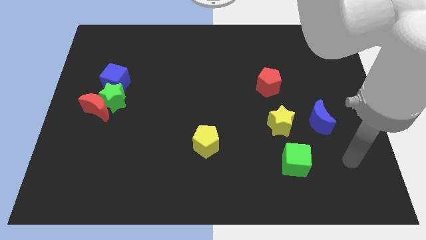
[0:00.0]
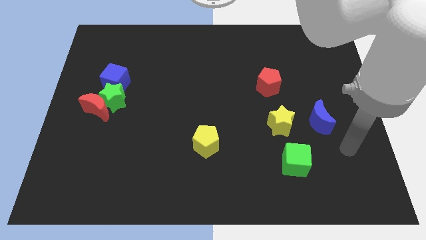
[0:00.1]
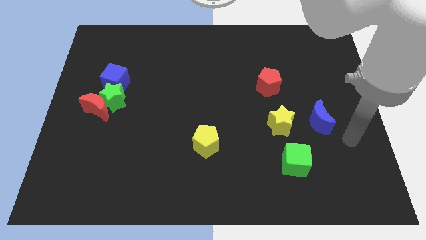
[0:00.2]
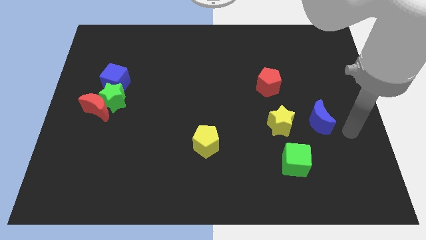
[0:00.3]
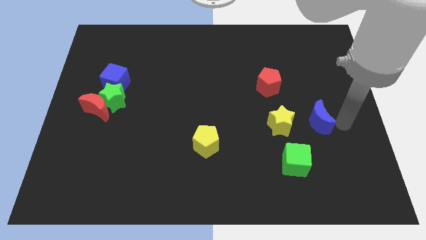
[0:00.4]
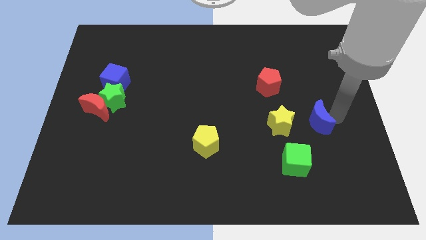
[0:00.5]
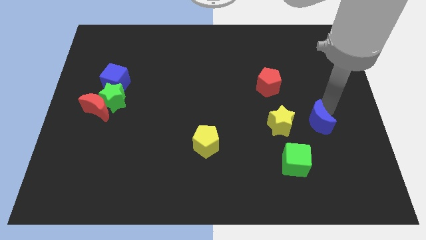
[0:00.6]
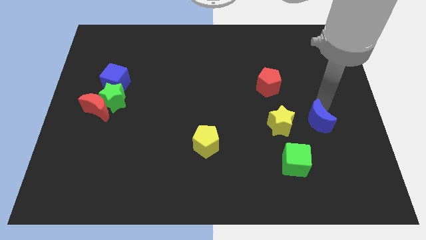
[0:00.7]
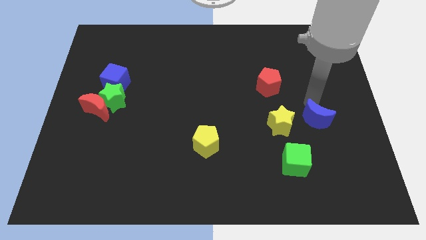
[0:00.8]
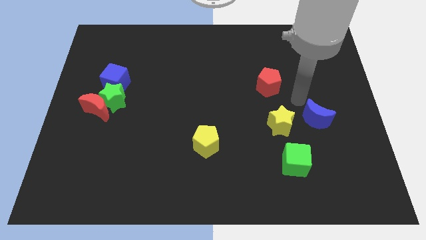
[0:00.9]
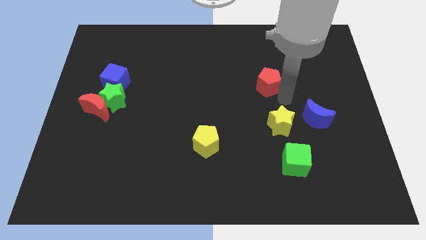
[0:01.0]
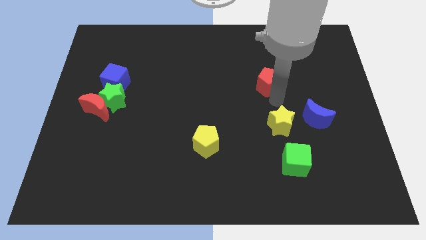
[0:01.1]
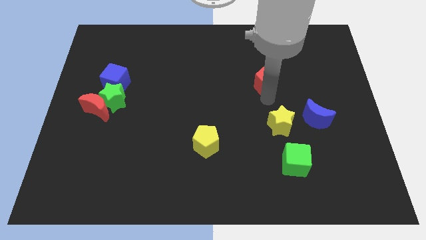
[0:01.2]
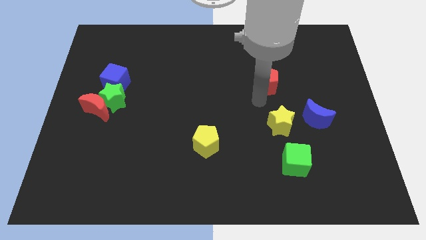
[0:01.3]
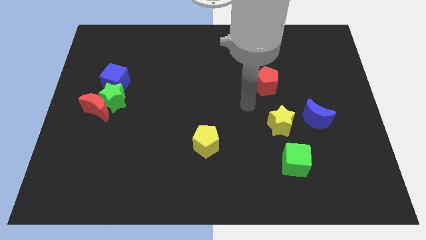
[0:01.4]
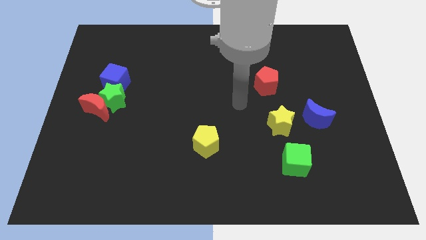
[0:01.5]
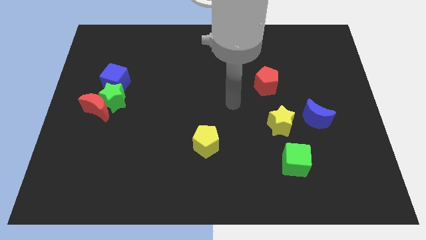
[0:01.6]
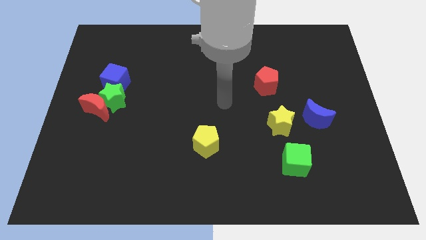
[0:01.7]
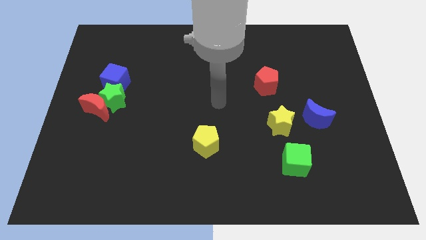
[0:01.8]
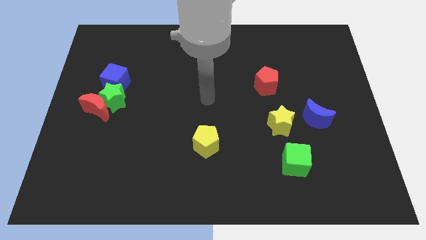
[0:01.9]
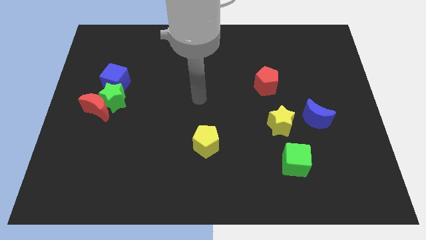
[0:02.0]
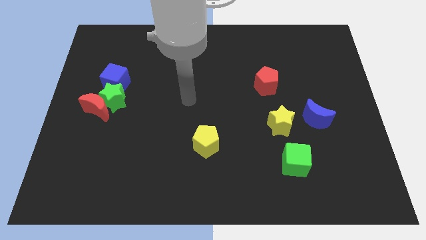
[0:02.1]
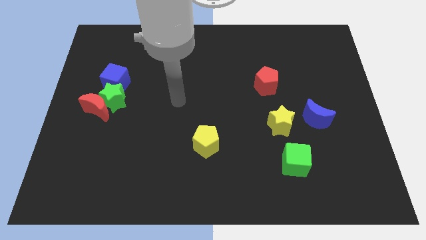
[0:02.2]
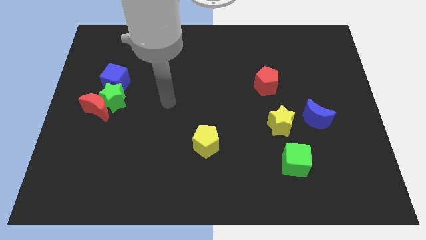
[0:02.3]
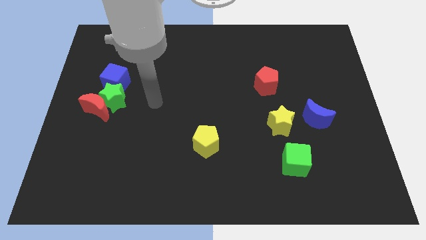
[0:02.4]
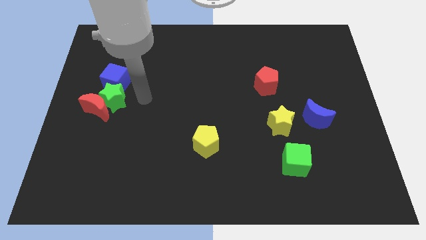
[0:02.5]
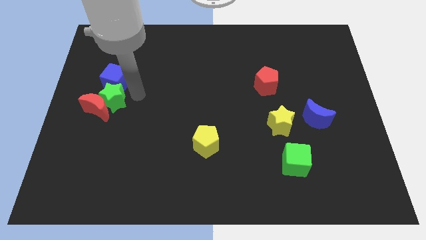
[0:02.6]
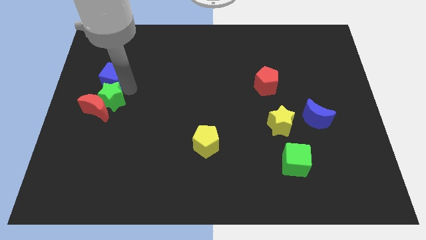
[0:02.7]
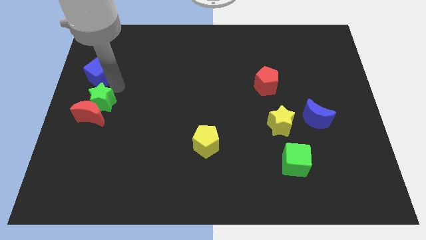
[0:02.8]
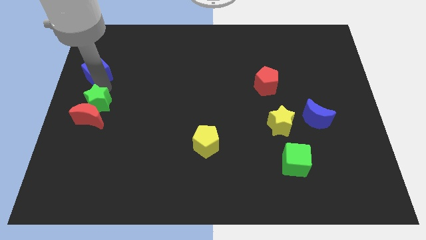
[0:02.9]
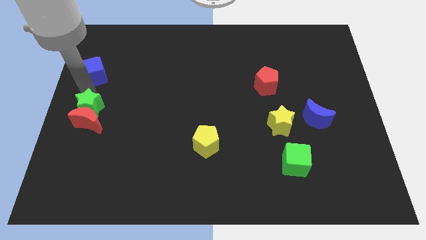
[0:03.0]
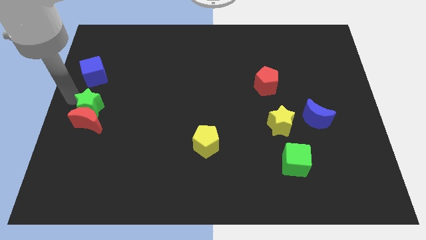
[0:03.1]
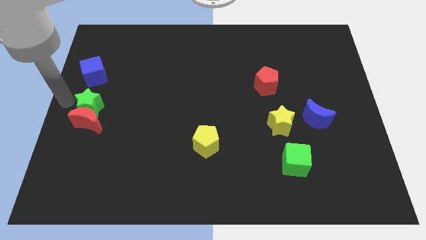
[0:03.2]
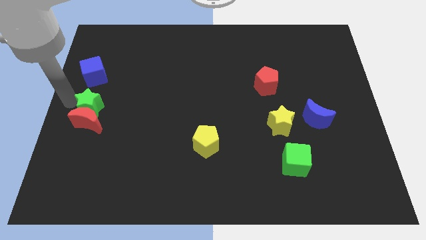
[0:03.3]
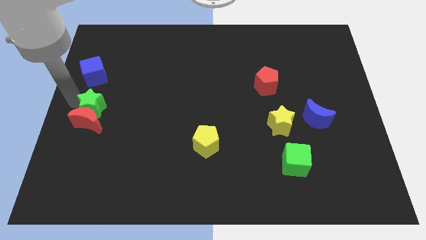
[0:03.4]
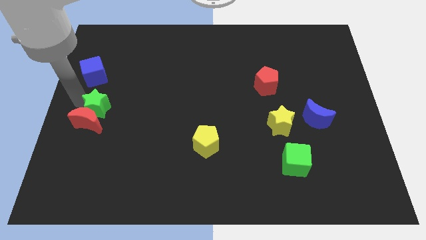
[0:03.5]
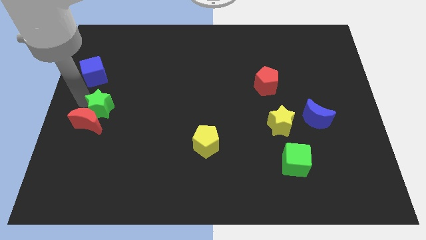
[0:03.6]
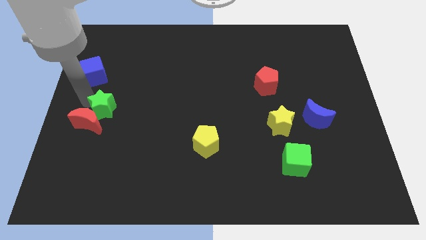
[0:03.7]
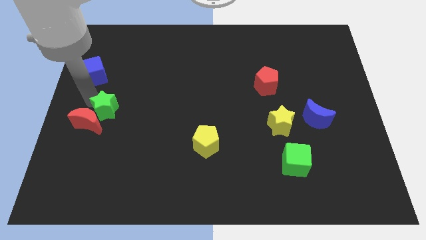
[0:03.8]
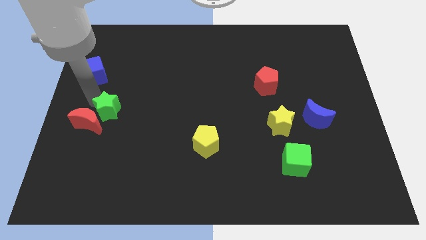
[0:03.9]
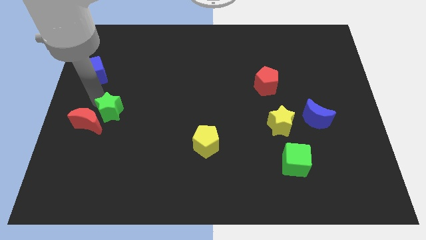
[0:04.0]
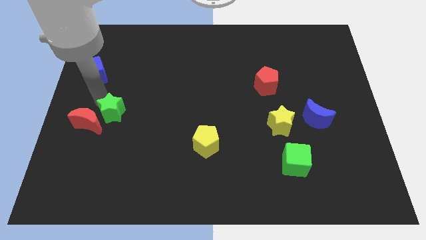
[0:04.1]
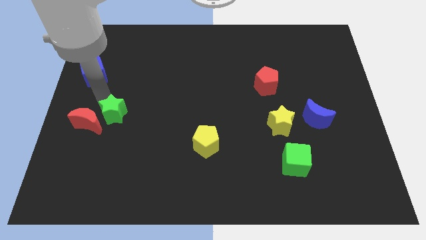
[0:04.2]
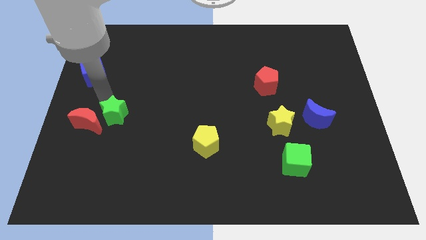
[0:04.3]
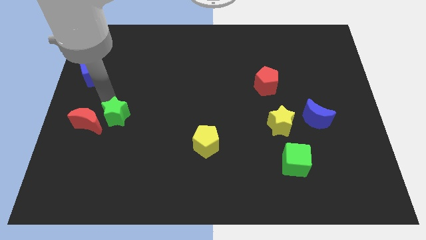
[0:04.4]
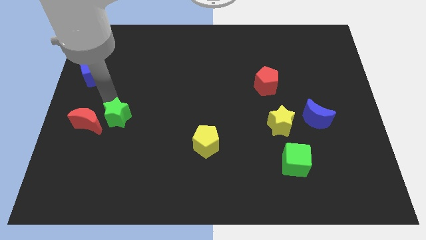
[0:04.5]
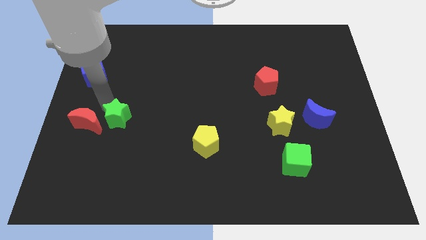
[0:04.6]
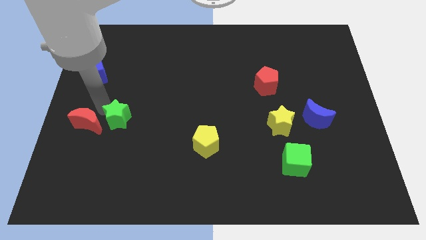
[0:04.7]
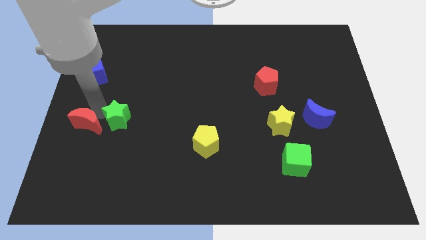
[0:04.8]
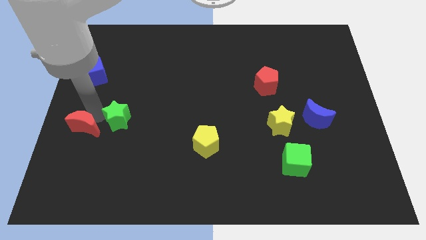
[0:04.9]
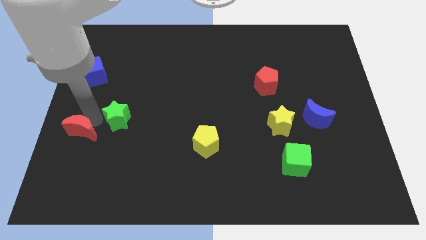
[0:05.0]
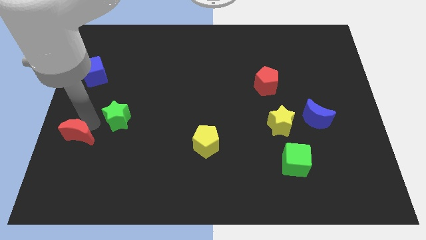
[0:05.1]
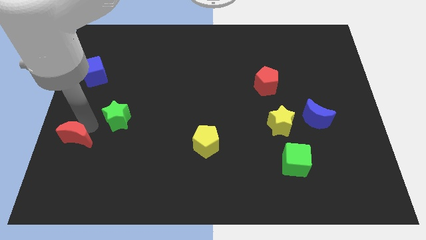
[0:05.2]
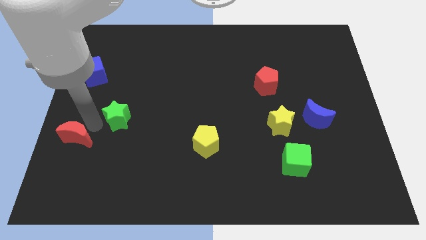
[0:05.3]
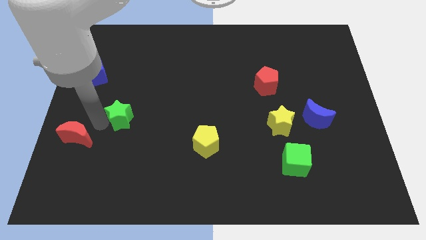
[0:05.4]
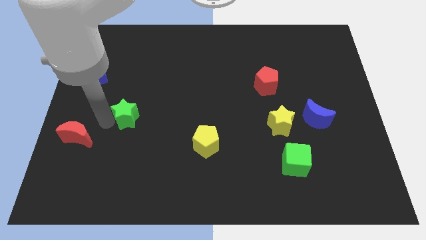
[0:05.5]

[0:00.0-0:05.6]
pull the green star apart from the red moon and blue cube

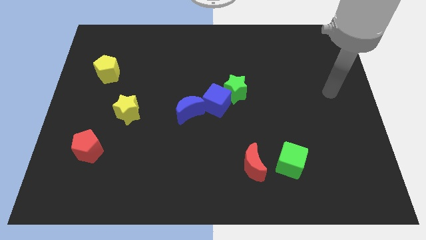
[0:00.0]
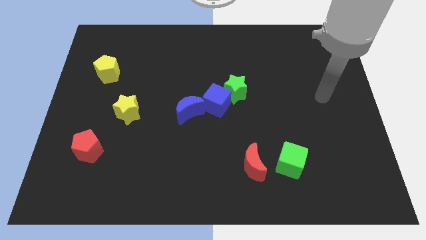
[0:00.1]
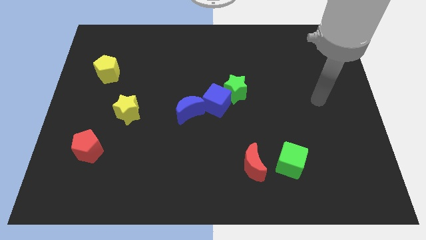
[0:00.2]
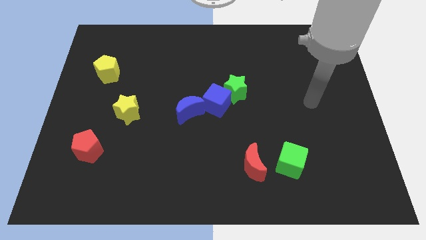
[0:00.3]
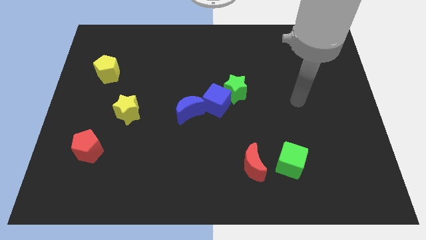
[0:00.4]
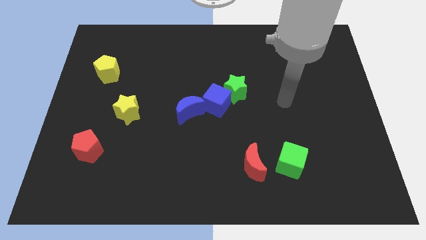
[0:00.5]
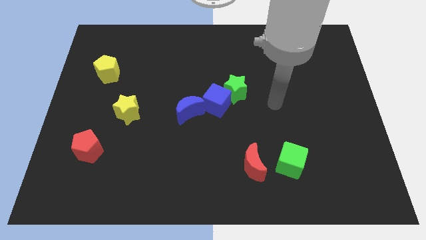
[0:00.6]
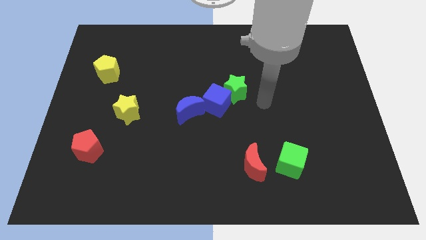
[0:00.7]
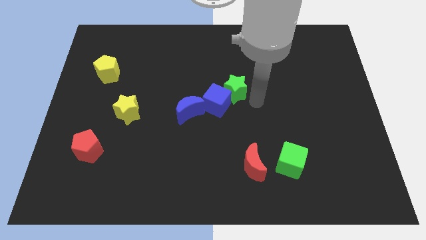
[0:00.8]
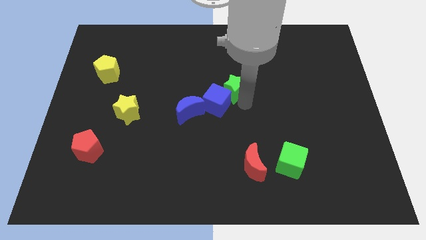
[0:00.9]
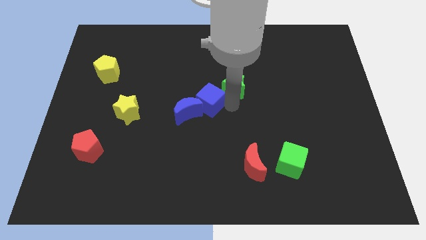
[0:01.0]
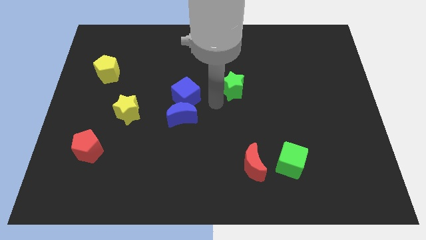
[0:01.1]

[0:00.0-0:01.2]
separate the green star from the blue cube

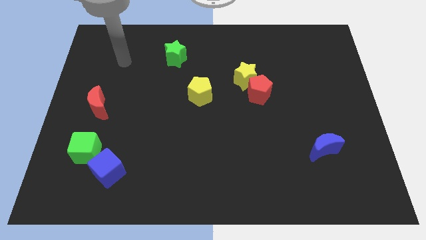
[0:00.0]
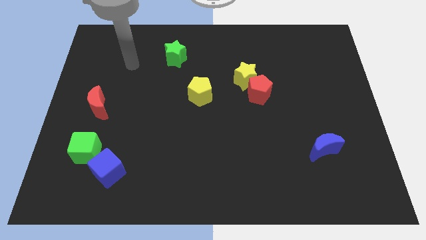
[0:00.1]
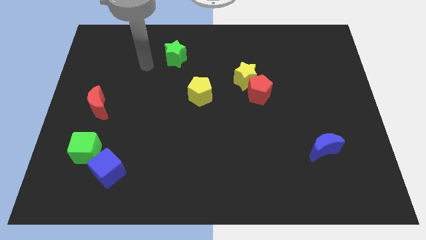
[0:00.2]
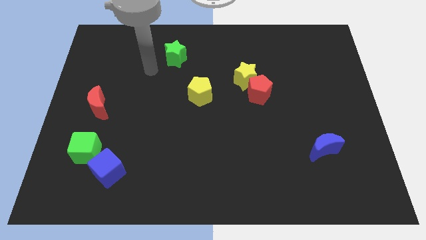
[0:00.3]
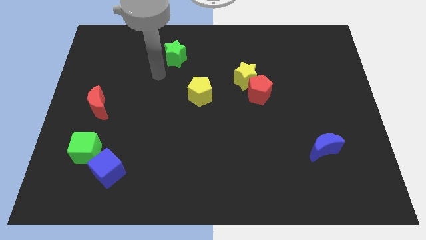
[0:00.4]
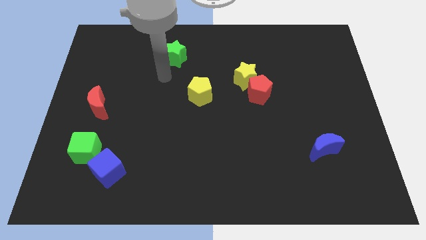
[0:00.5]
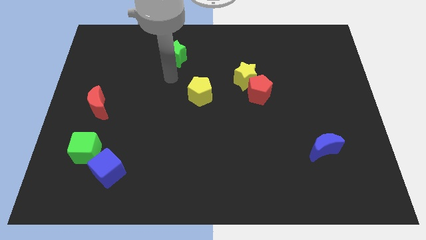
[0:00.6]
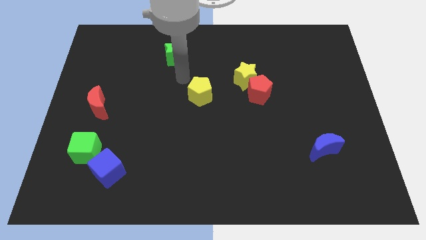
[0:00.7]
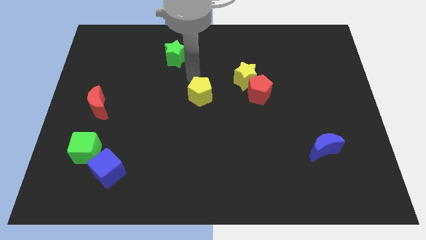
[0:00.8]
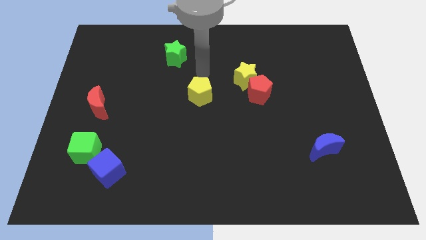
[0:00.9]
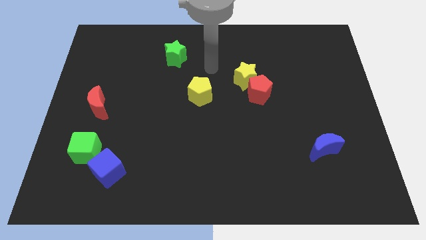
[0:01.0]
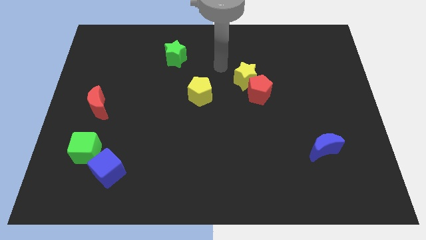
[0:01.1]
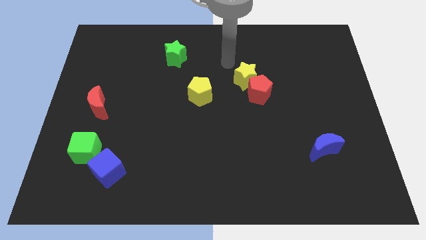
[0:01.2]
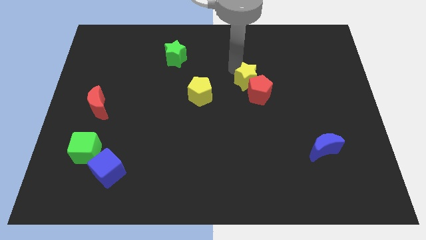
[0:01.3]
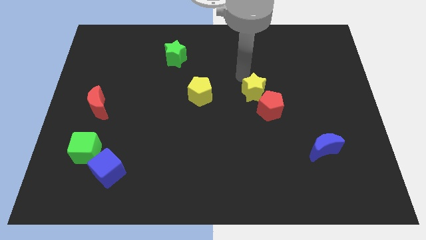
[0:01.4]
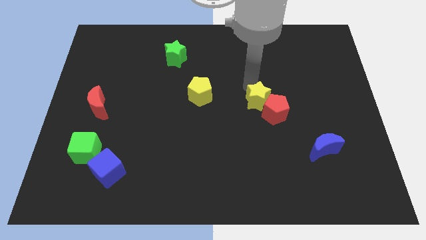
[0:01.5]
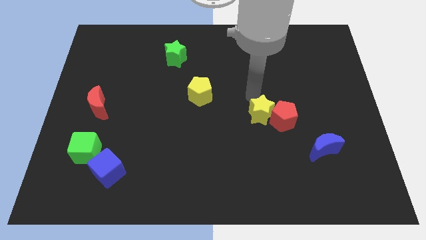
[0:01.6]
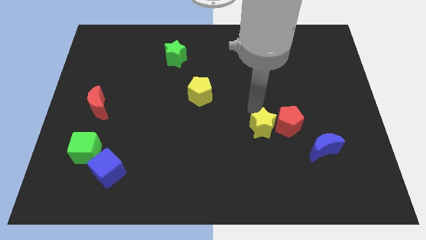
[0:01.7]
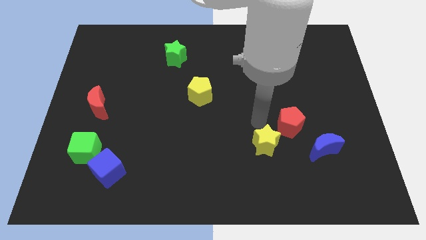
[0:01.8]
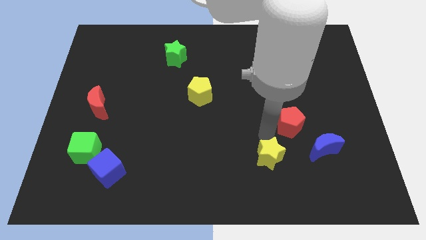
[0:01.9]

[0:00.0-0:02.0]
pull the red pentagon apart from the yellow star

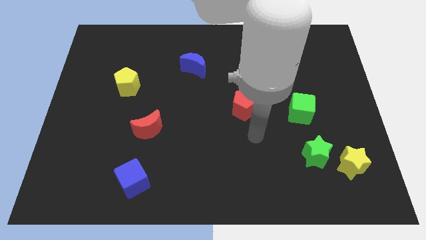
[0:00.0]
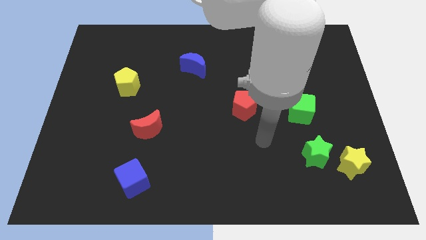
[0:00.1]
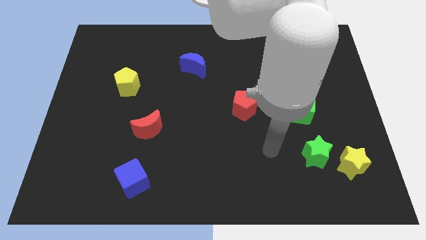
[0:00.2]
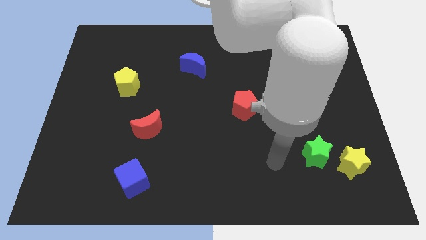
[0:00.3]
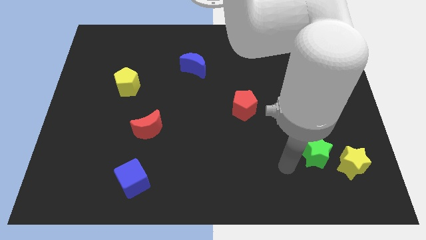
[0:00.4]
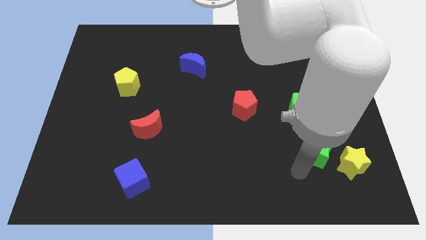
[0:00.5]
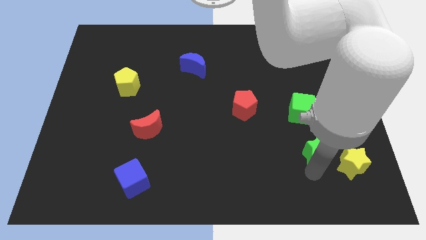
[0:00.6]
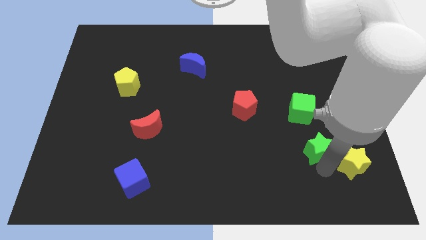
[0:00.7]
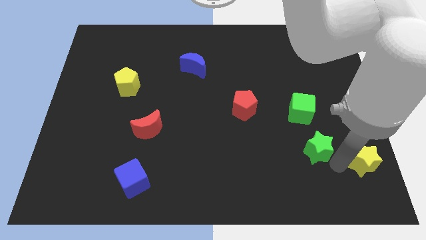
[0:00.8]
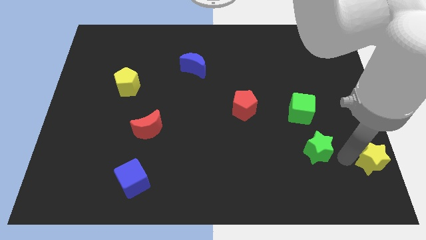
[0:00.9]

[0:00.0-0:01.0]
separate the green star from the yellow star
